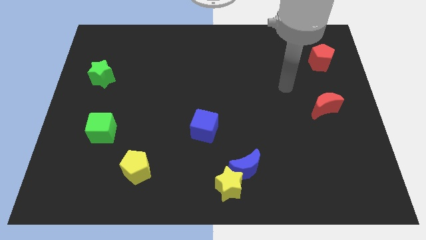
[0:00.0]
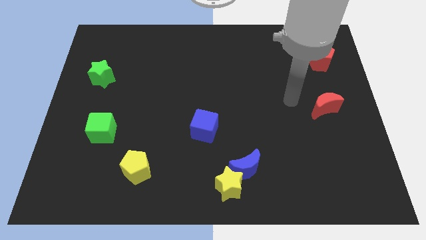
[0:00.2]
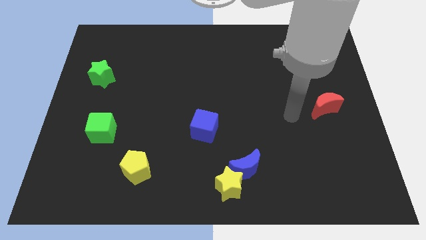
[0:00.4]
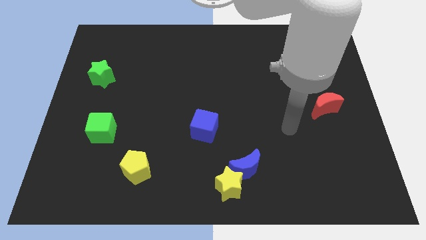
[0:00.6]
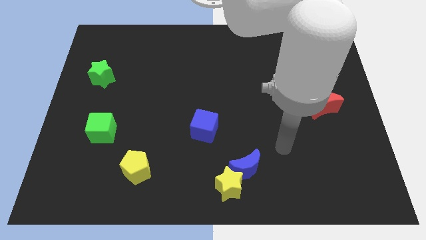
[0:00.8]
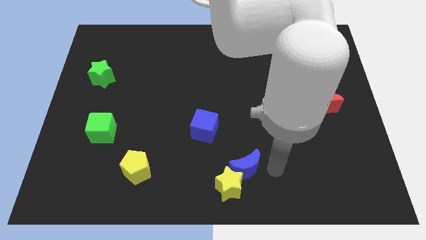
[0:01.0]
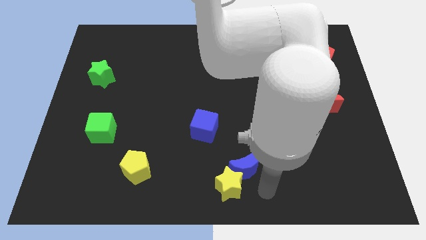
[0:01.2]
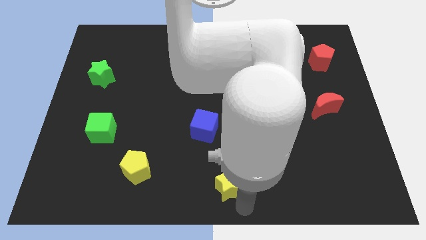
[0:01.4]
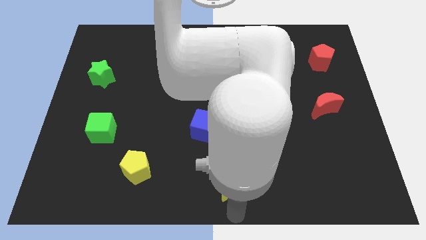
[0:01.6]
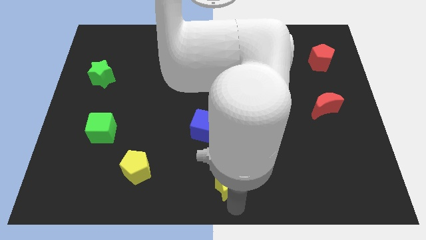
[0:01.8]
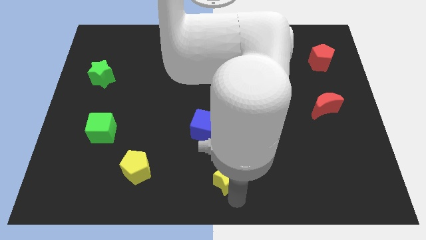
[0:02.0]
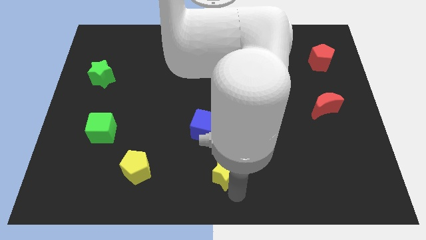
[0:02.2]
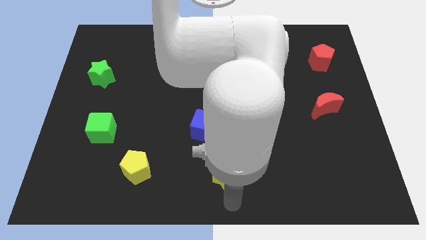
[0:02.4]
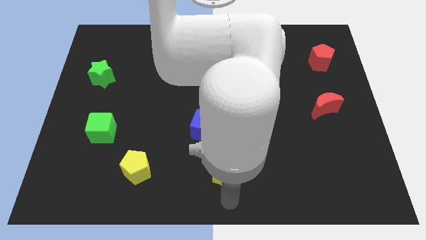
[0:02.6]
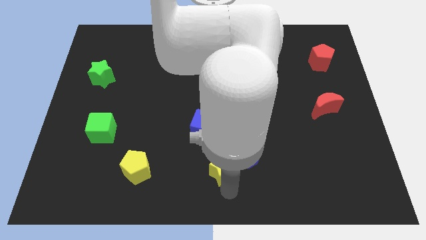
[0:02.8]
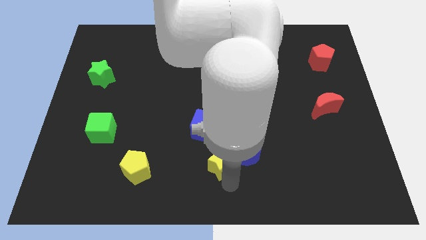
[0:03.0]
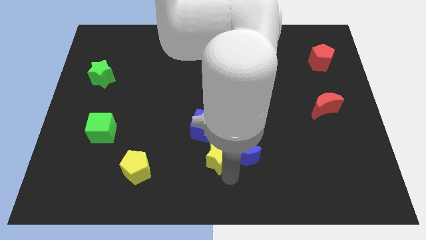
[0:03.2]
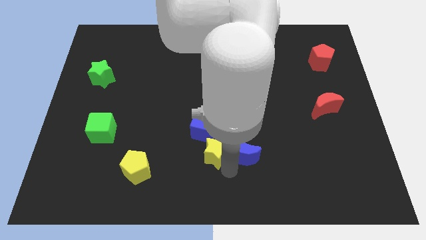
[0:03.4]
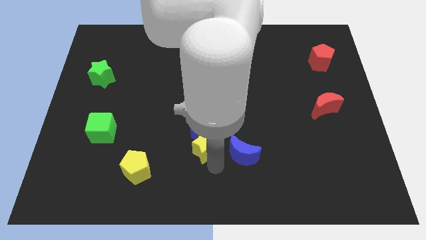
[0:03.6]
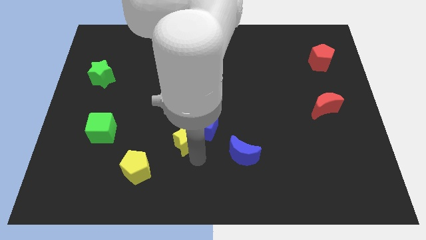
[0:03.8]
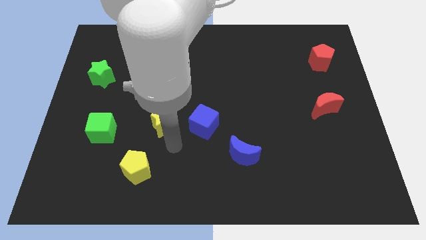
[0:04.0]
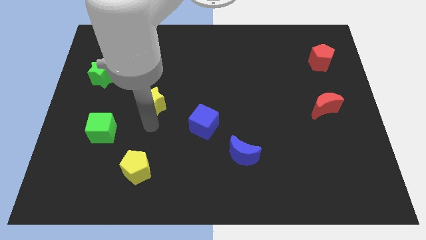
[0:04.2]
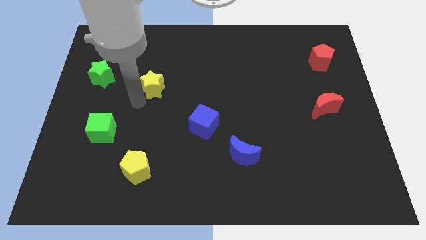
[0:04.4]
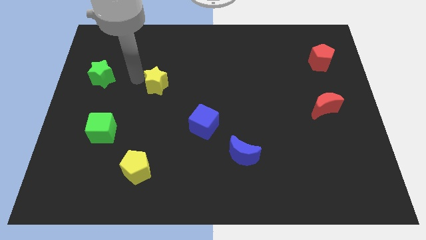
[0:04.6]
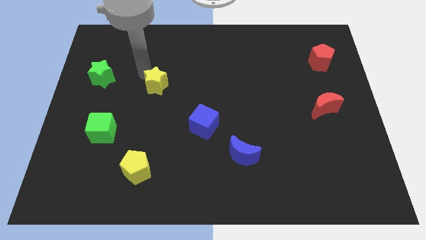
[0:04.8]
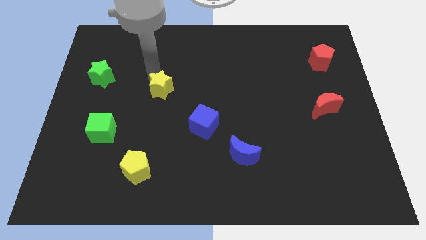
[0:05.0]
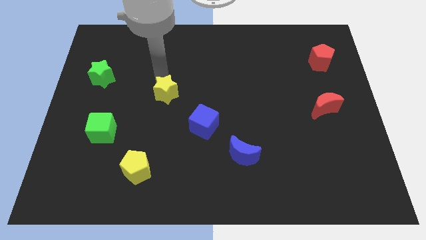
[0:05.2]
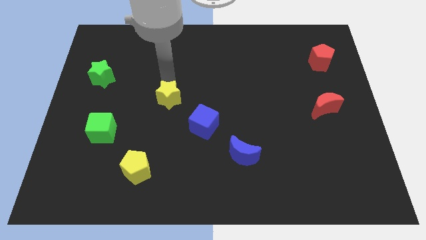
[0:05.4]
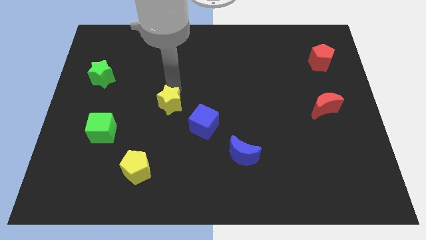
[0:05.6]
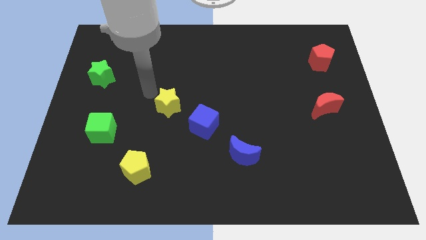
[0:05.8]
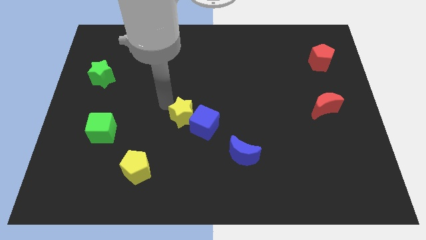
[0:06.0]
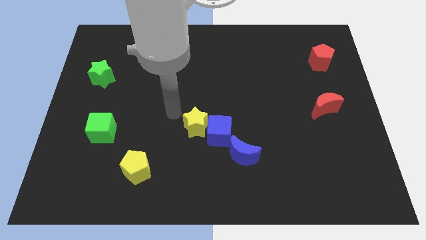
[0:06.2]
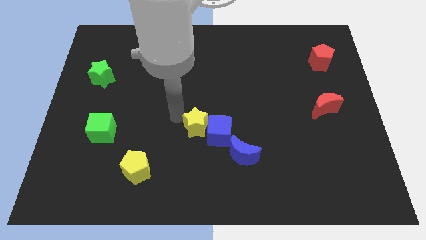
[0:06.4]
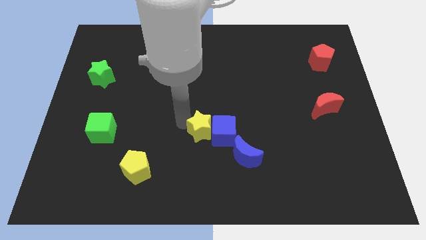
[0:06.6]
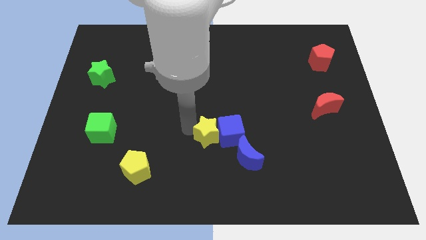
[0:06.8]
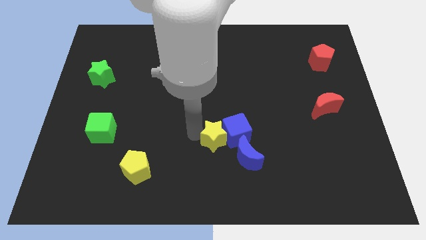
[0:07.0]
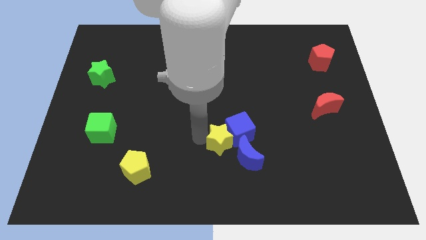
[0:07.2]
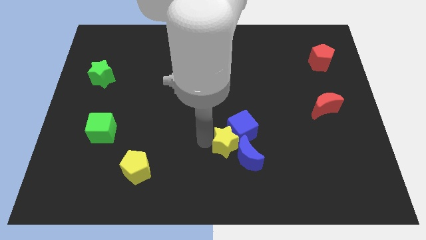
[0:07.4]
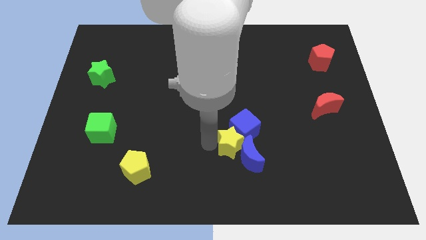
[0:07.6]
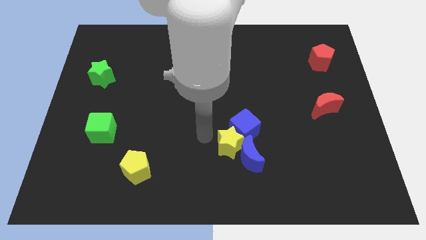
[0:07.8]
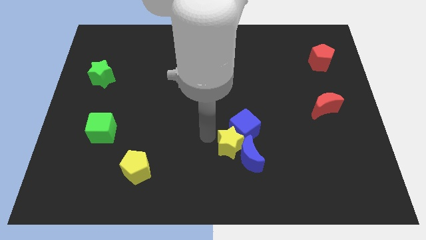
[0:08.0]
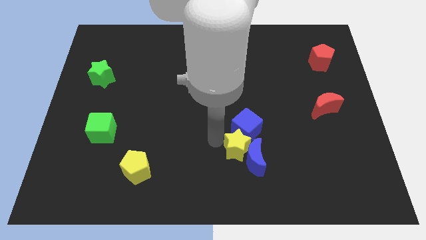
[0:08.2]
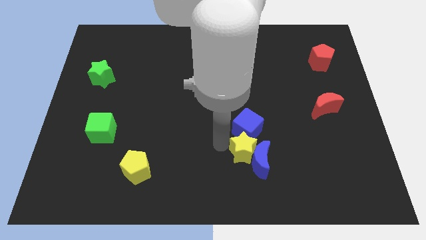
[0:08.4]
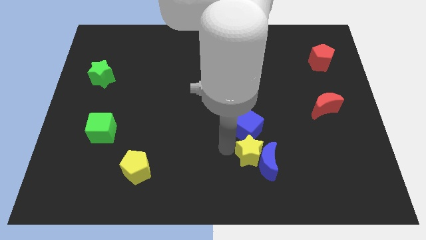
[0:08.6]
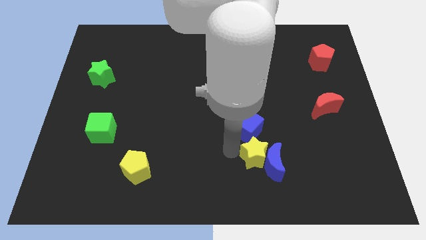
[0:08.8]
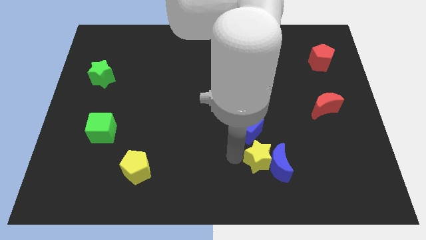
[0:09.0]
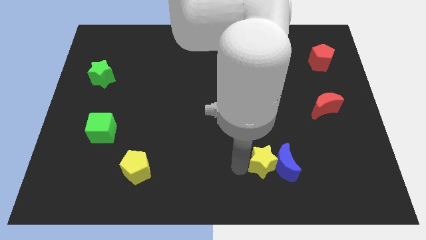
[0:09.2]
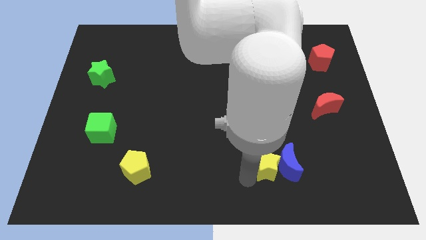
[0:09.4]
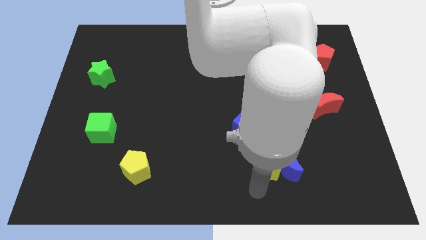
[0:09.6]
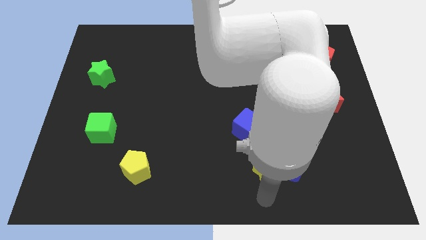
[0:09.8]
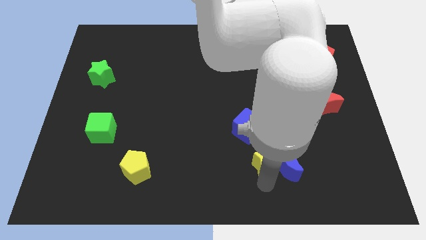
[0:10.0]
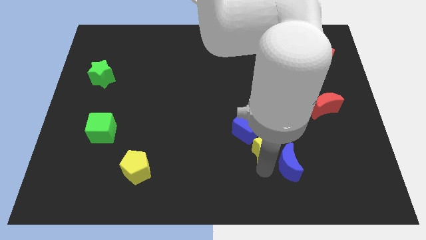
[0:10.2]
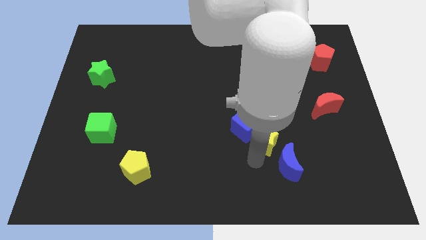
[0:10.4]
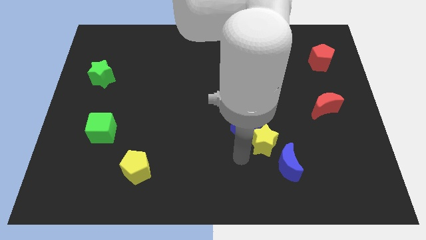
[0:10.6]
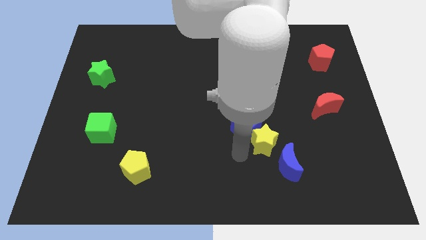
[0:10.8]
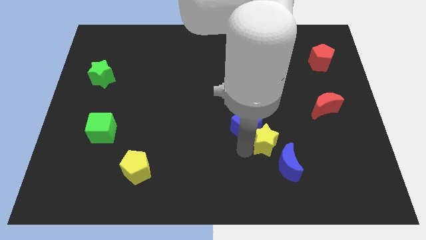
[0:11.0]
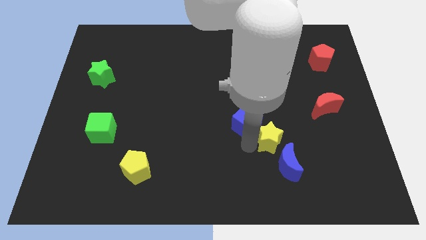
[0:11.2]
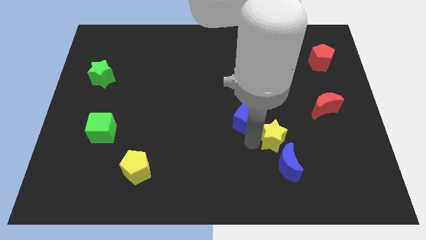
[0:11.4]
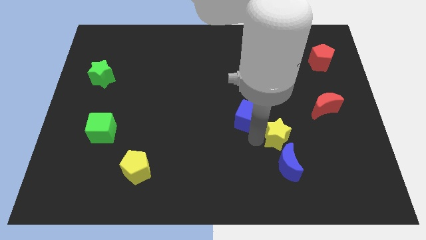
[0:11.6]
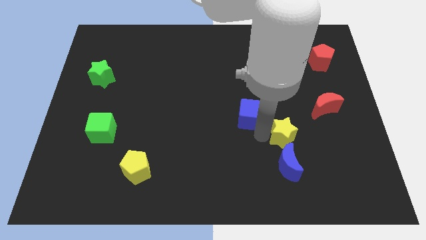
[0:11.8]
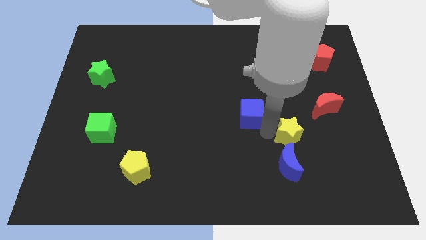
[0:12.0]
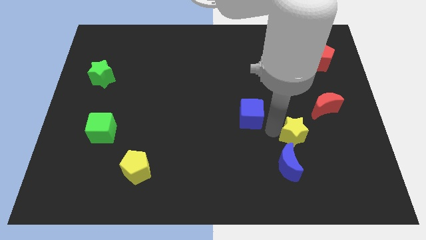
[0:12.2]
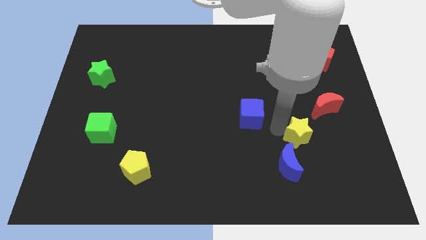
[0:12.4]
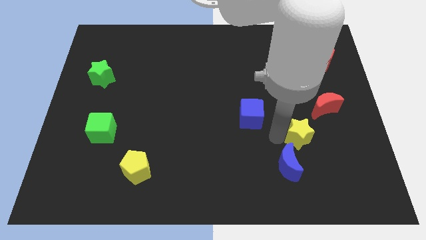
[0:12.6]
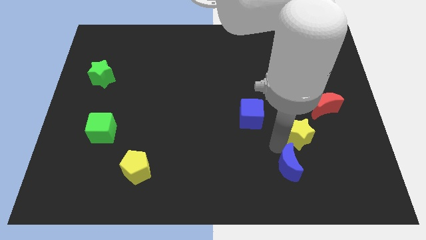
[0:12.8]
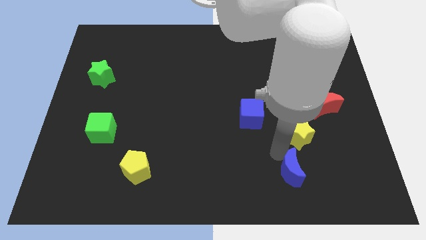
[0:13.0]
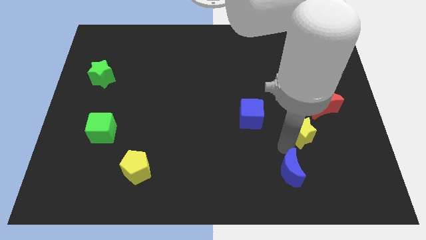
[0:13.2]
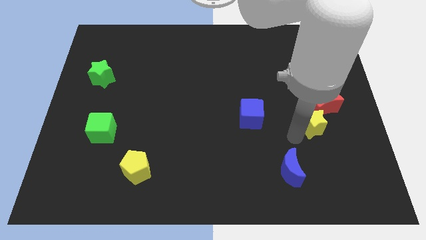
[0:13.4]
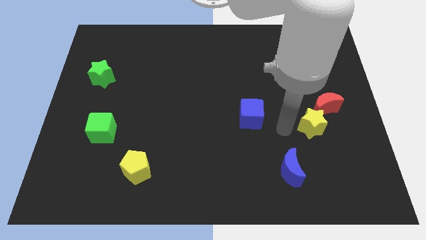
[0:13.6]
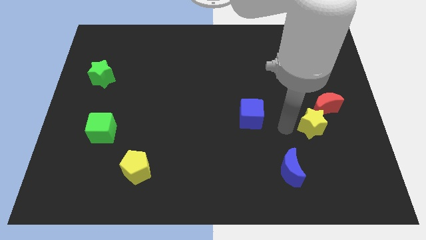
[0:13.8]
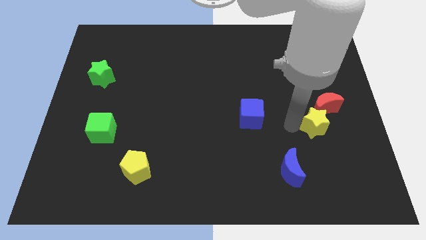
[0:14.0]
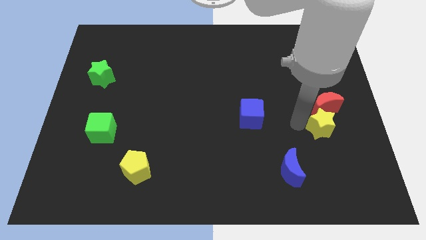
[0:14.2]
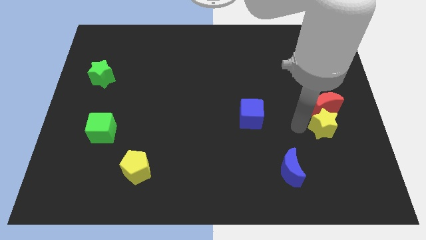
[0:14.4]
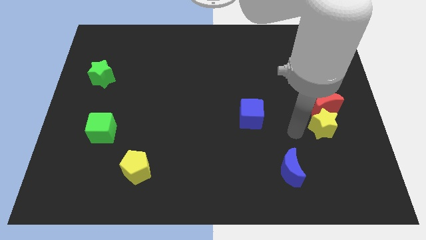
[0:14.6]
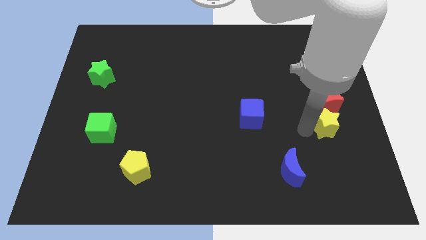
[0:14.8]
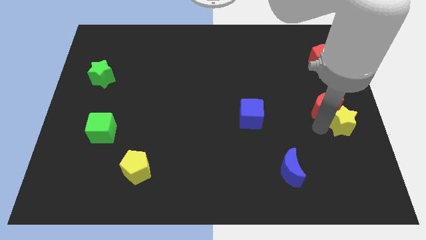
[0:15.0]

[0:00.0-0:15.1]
put the yellow star to the right side
